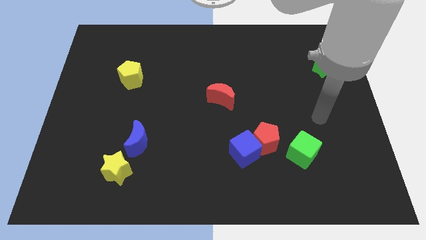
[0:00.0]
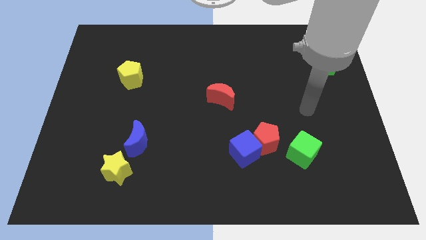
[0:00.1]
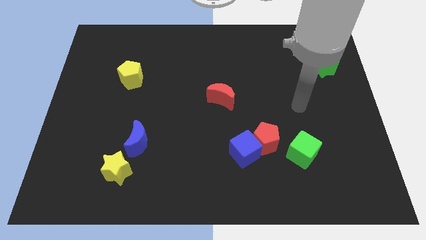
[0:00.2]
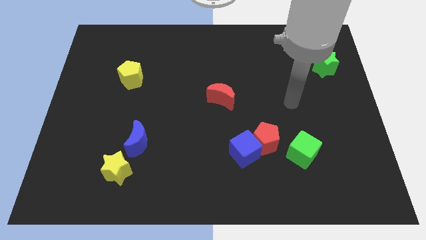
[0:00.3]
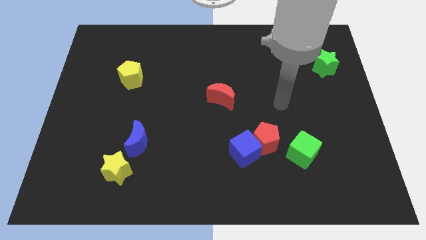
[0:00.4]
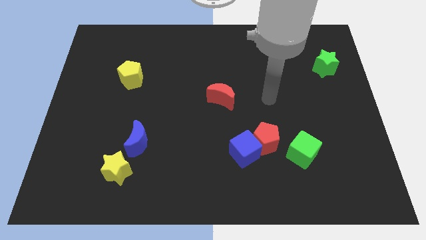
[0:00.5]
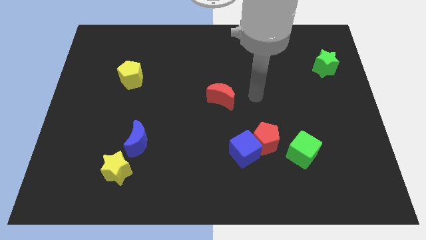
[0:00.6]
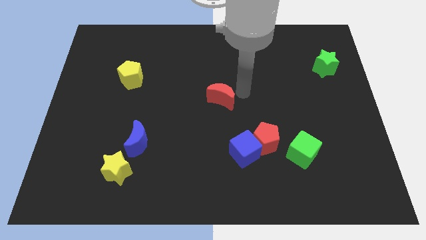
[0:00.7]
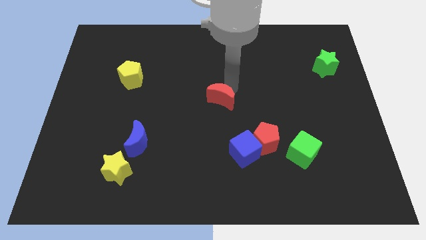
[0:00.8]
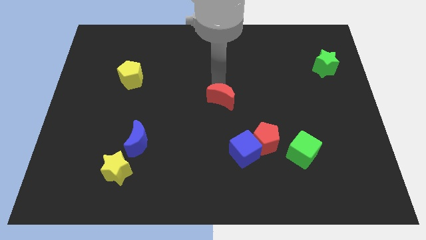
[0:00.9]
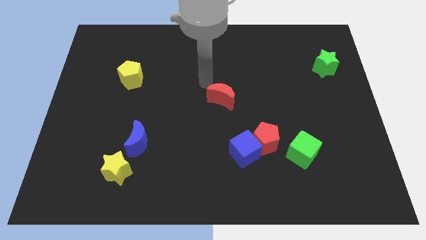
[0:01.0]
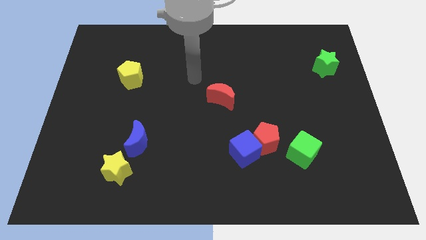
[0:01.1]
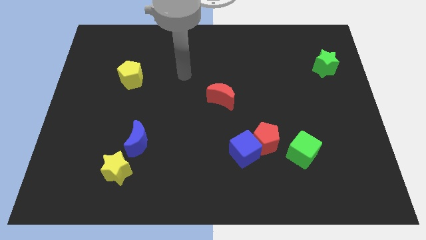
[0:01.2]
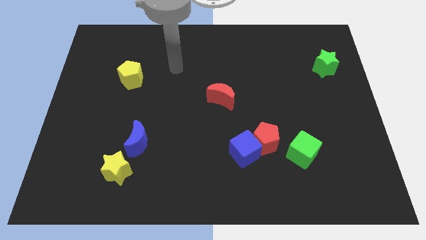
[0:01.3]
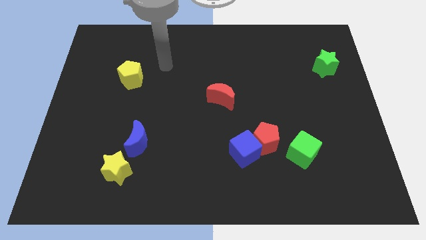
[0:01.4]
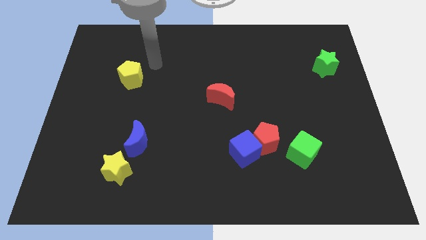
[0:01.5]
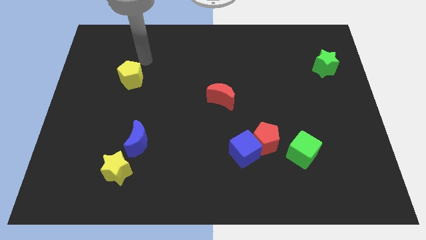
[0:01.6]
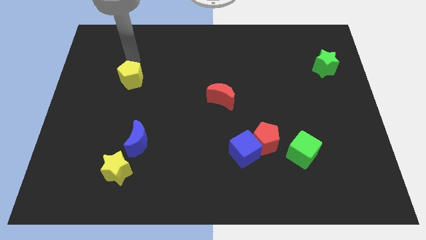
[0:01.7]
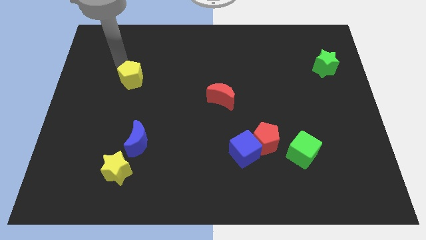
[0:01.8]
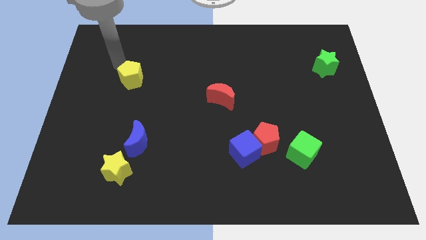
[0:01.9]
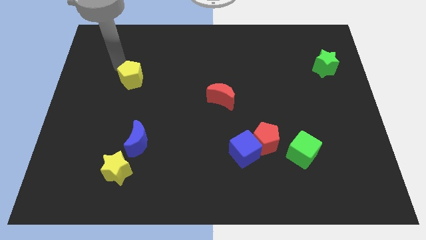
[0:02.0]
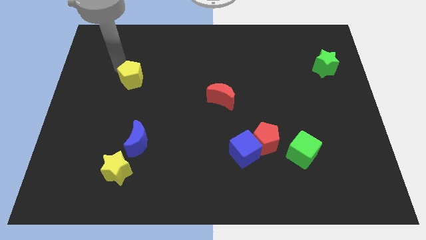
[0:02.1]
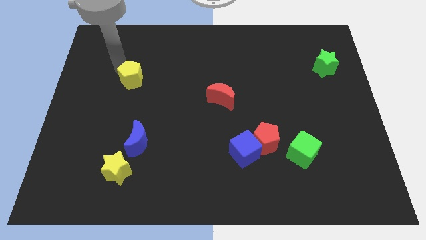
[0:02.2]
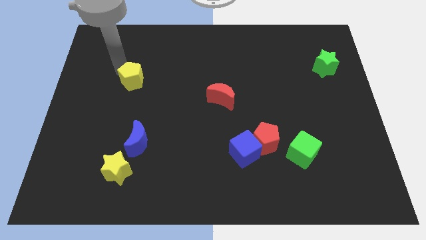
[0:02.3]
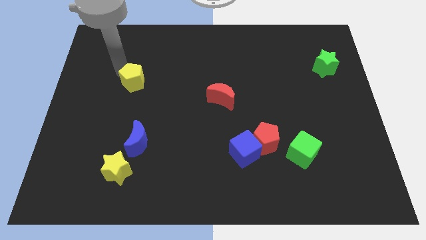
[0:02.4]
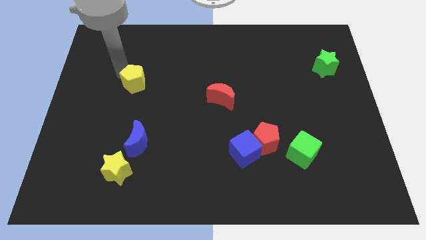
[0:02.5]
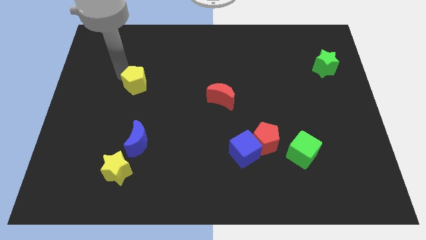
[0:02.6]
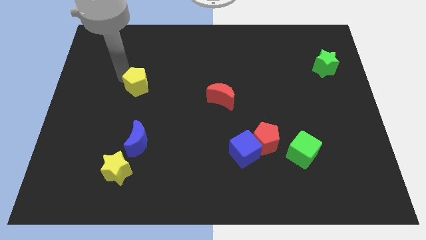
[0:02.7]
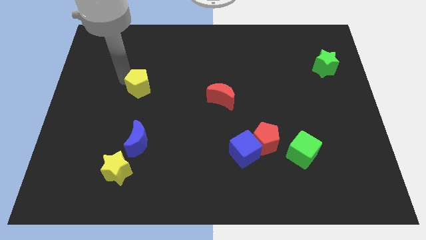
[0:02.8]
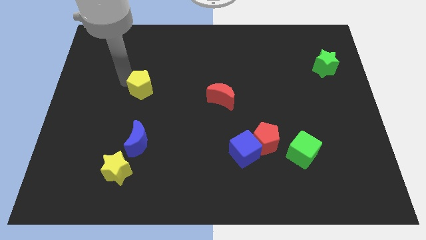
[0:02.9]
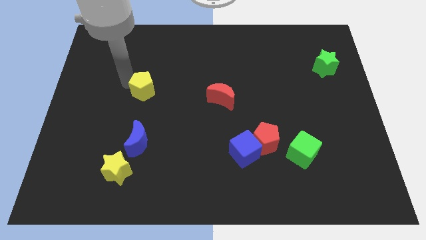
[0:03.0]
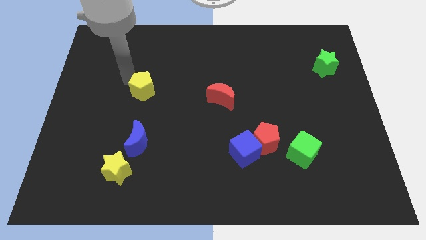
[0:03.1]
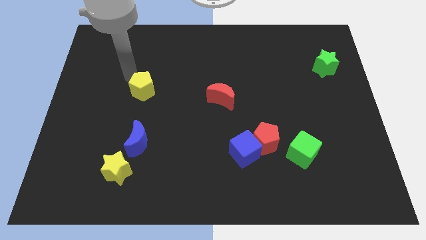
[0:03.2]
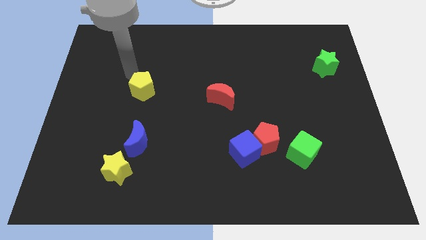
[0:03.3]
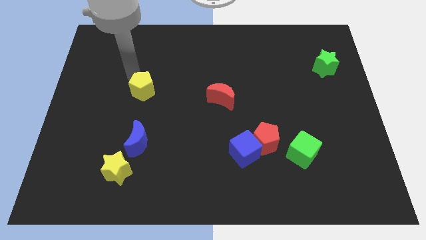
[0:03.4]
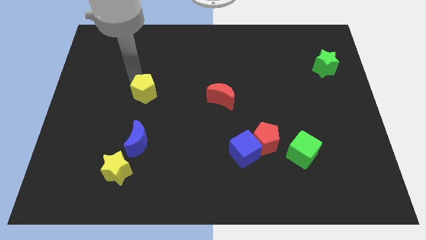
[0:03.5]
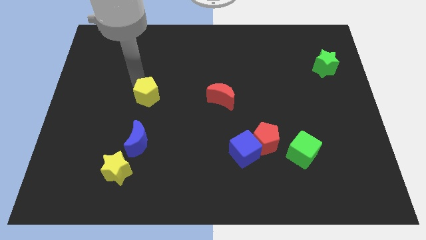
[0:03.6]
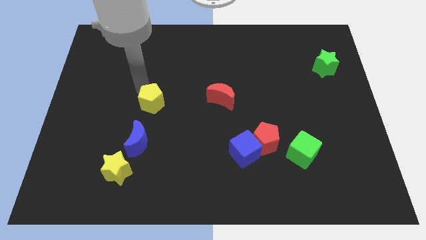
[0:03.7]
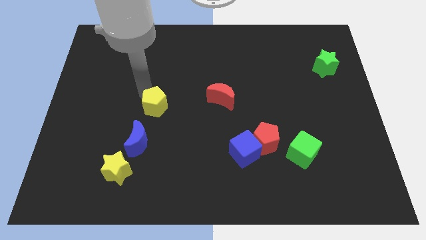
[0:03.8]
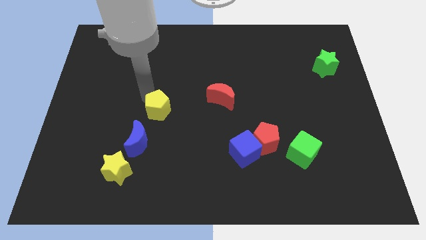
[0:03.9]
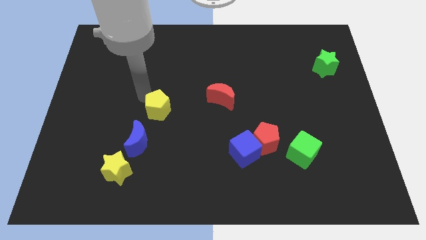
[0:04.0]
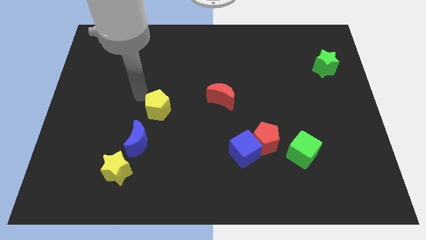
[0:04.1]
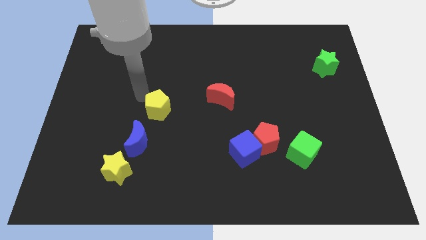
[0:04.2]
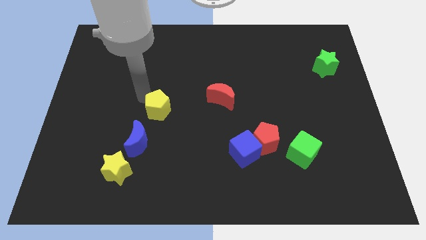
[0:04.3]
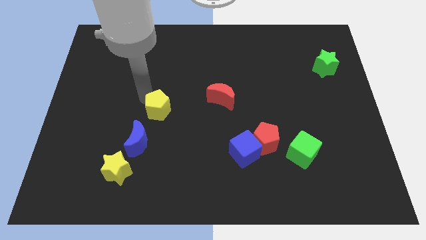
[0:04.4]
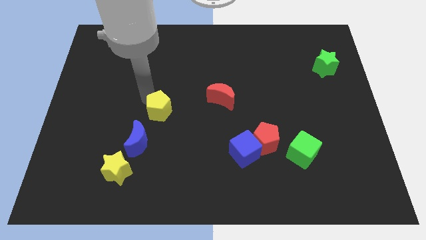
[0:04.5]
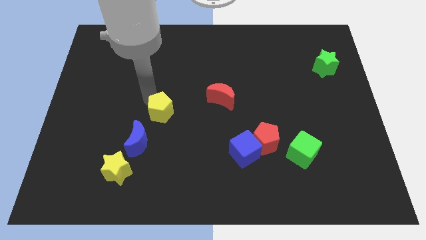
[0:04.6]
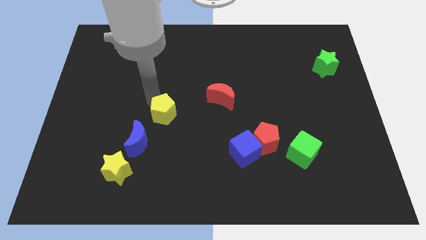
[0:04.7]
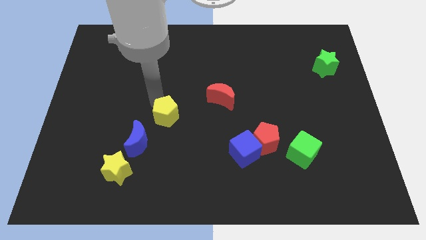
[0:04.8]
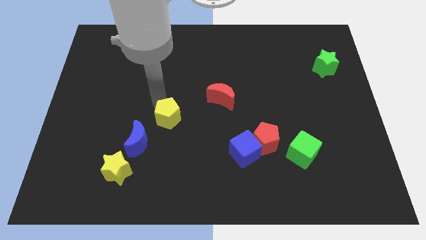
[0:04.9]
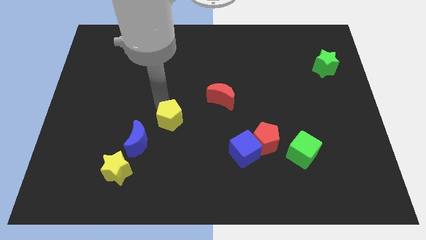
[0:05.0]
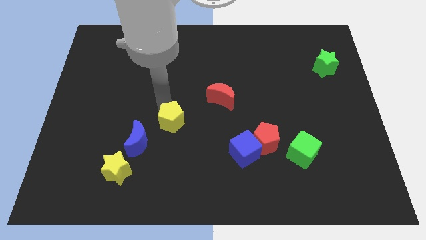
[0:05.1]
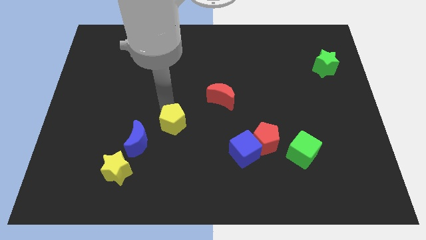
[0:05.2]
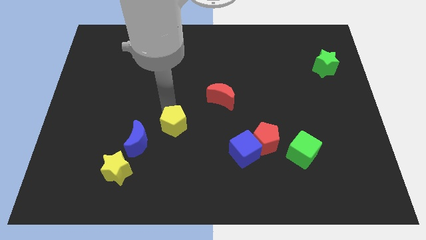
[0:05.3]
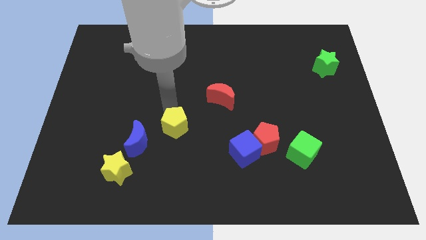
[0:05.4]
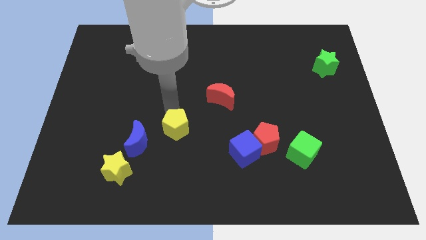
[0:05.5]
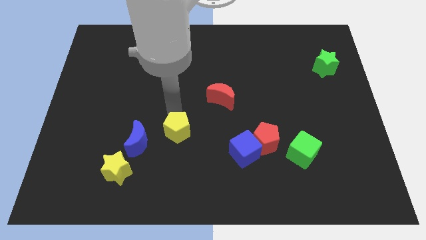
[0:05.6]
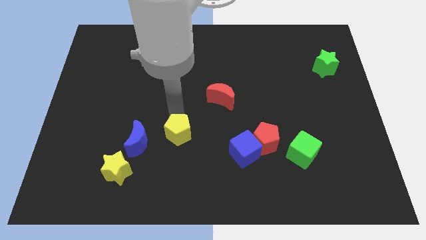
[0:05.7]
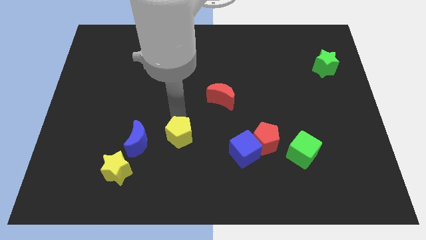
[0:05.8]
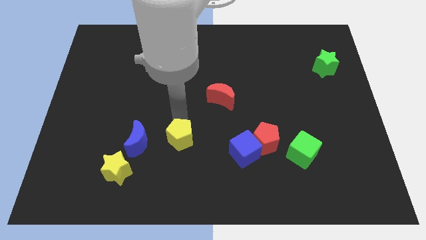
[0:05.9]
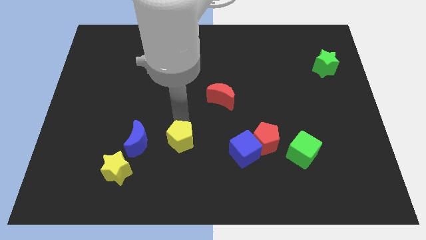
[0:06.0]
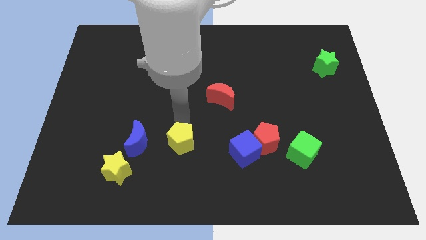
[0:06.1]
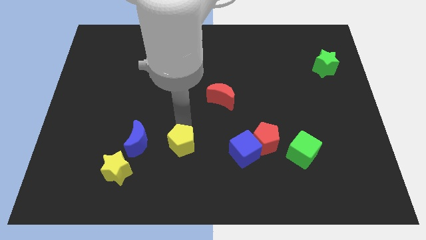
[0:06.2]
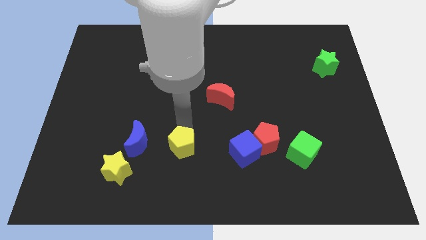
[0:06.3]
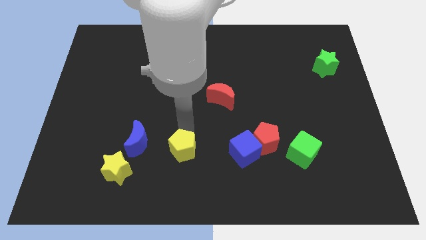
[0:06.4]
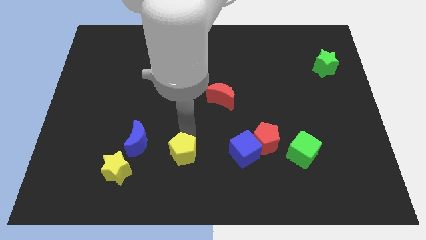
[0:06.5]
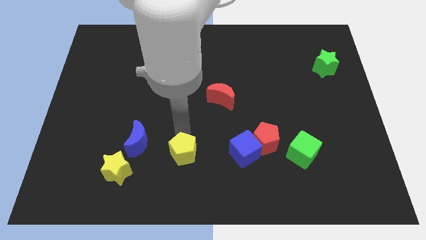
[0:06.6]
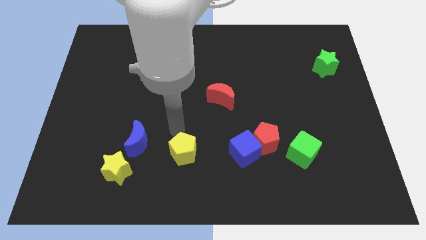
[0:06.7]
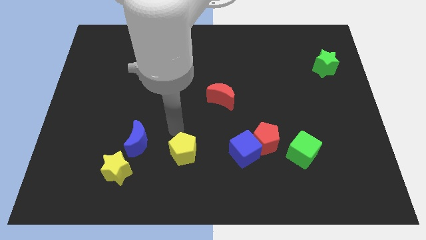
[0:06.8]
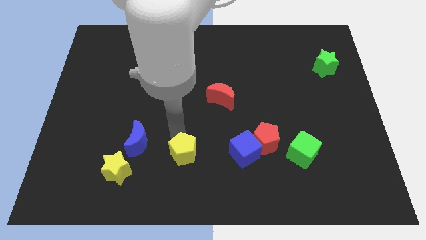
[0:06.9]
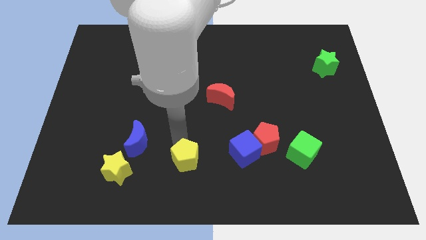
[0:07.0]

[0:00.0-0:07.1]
put the yellow pentagon to the bottom side

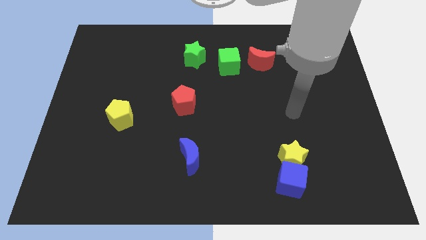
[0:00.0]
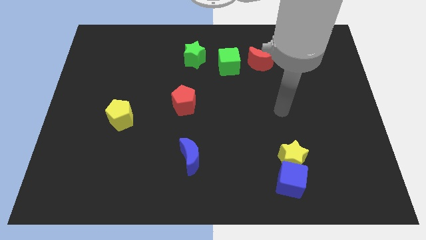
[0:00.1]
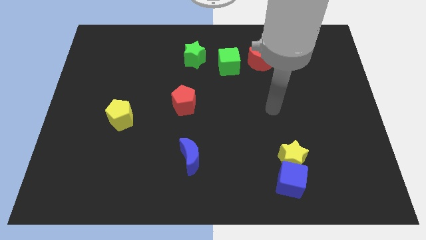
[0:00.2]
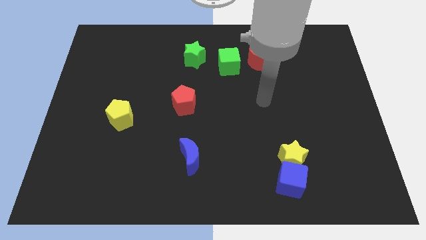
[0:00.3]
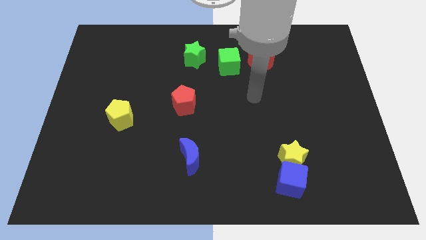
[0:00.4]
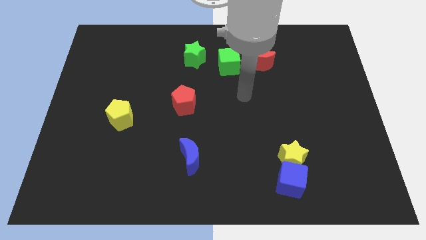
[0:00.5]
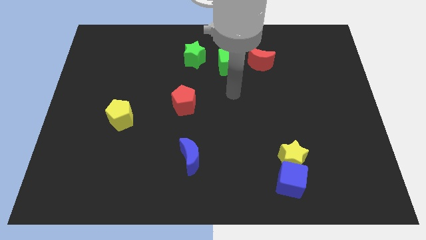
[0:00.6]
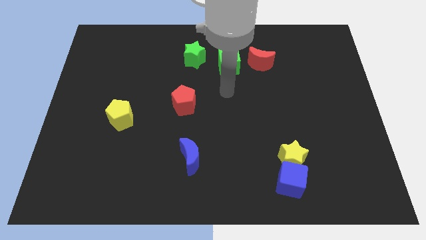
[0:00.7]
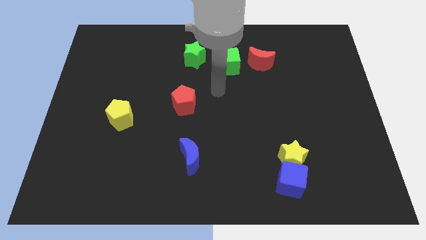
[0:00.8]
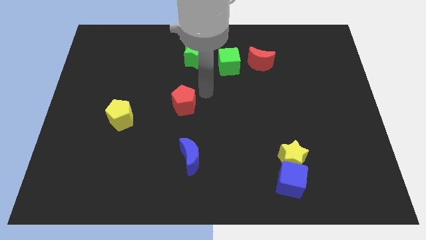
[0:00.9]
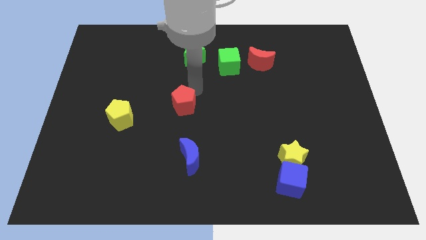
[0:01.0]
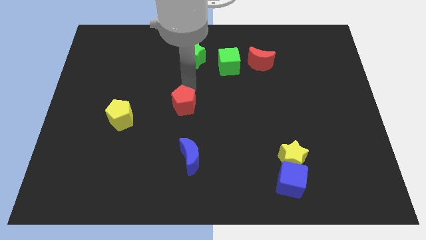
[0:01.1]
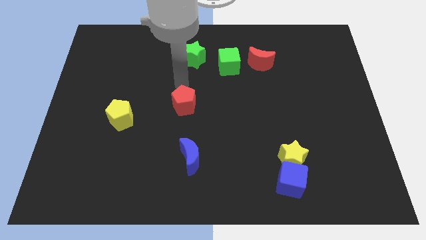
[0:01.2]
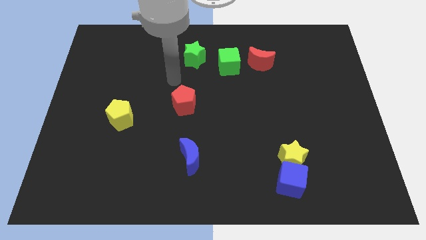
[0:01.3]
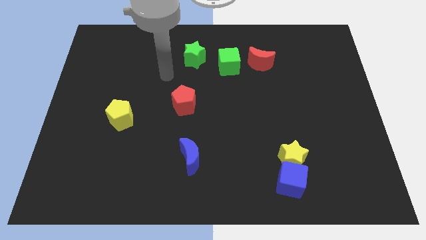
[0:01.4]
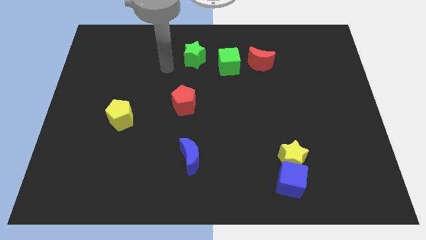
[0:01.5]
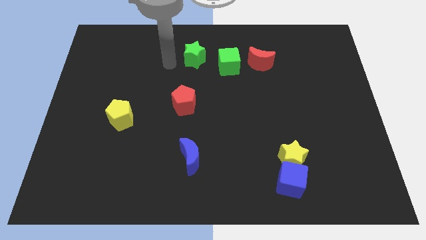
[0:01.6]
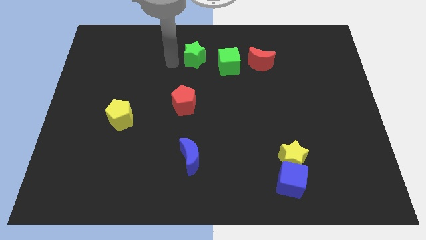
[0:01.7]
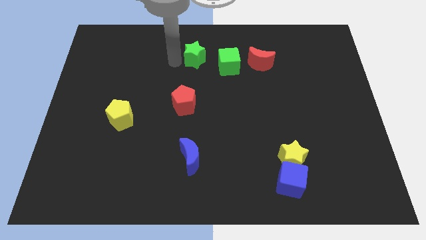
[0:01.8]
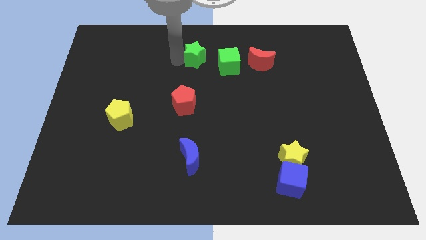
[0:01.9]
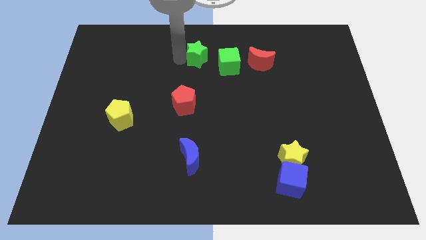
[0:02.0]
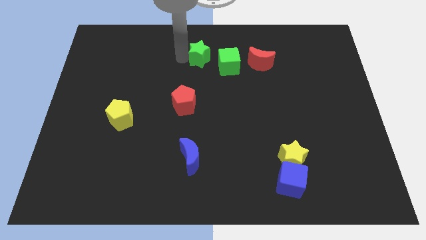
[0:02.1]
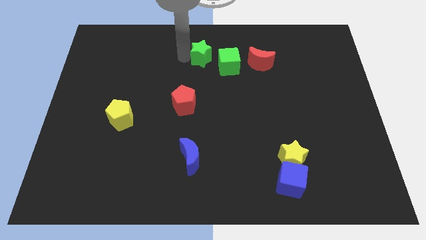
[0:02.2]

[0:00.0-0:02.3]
push the green star to the top
